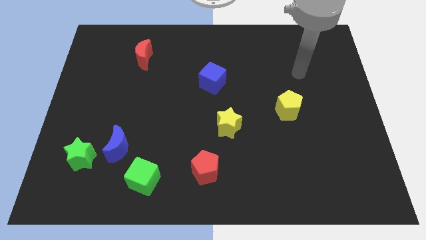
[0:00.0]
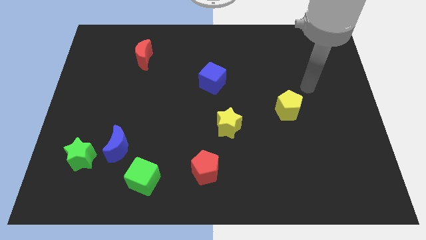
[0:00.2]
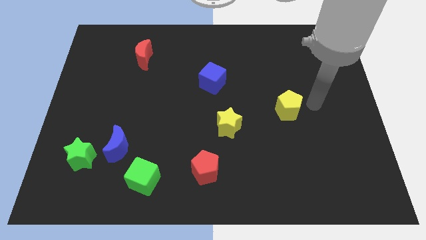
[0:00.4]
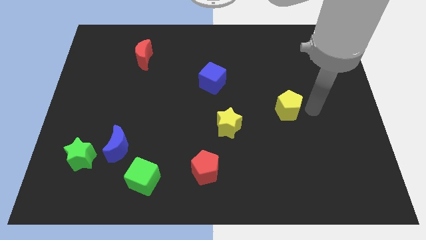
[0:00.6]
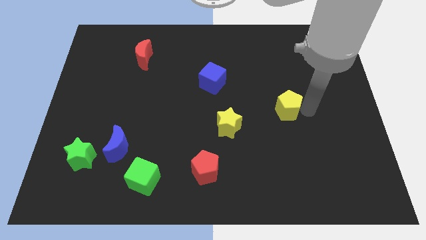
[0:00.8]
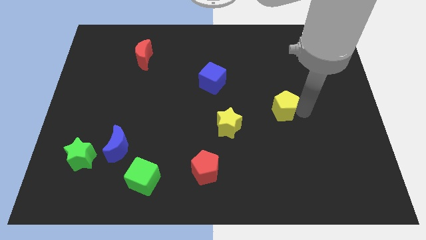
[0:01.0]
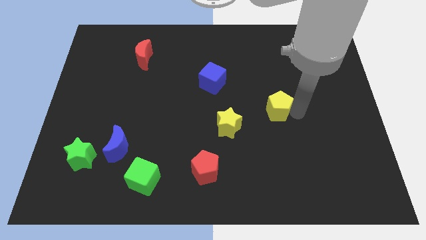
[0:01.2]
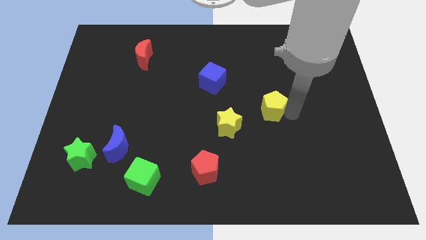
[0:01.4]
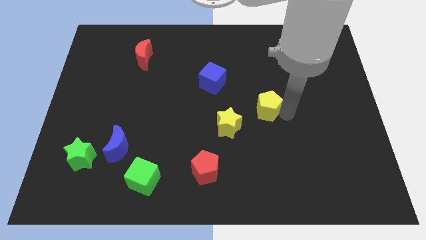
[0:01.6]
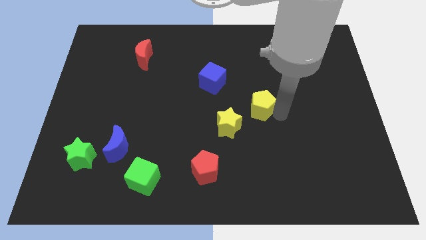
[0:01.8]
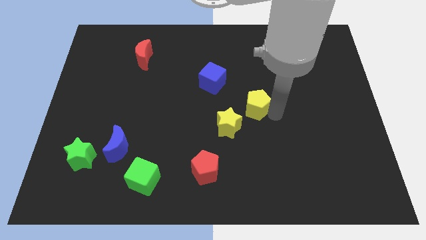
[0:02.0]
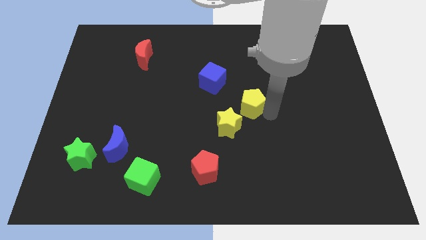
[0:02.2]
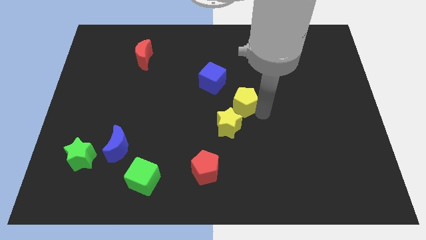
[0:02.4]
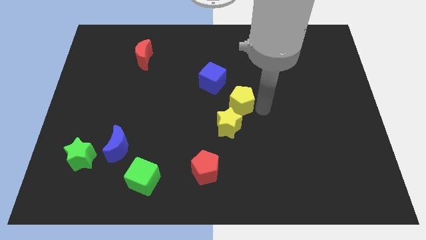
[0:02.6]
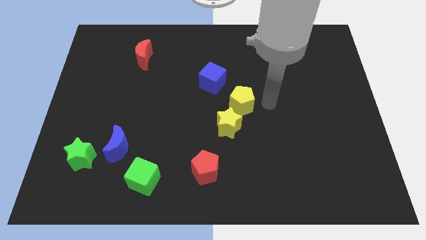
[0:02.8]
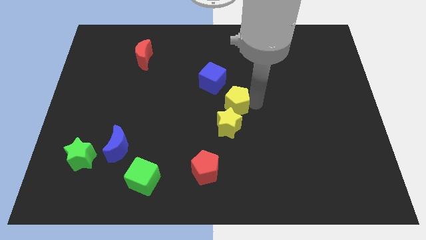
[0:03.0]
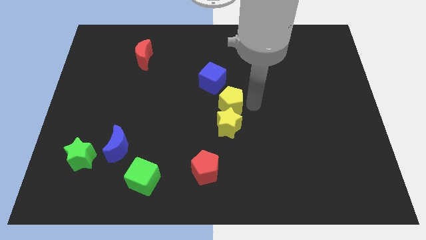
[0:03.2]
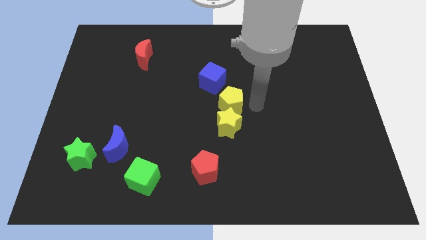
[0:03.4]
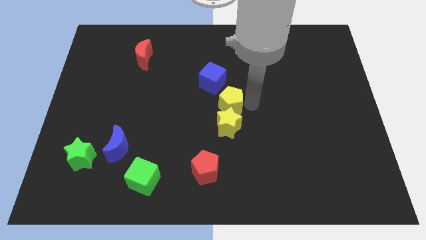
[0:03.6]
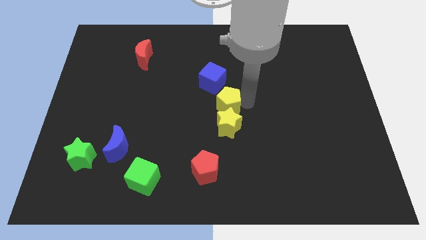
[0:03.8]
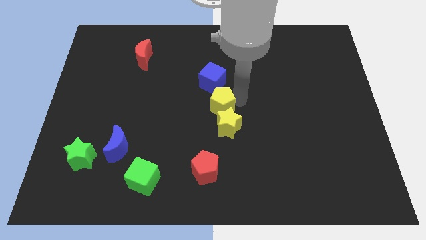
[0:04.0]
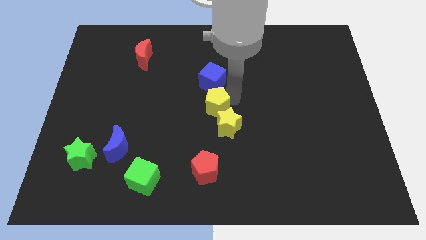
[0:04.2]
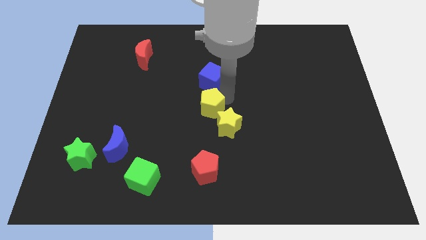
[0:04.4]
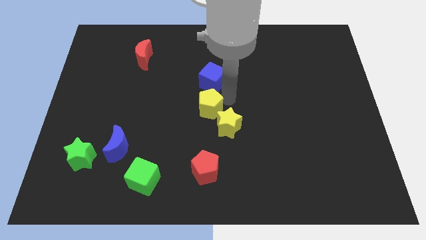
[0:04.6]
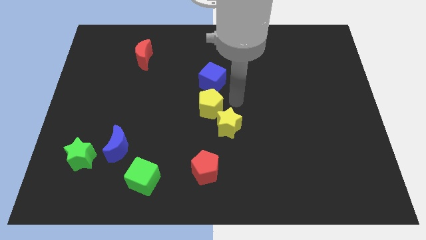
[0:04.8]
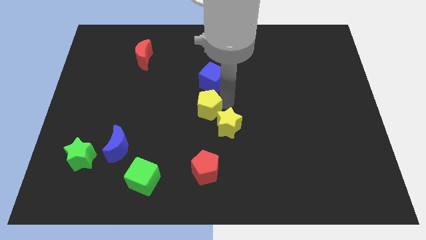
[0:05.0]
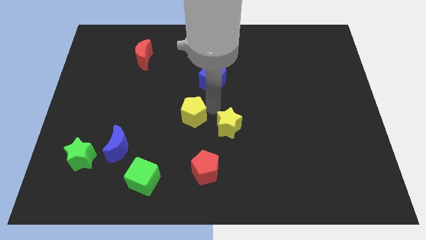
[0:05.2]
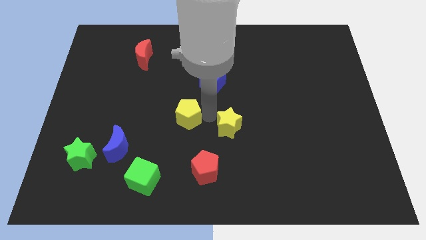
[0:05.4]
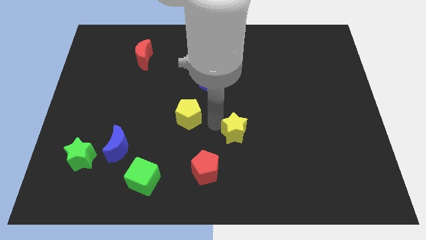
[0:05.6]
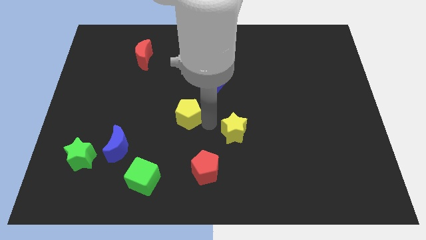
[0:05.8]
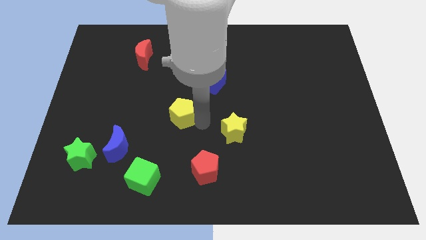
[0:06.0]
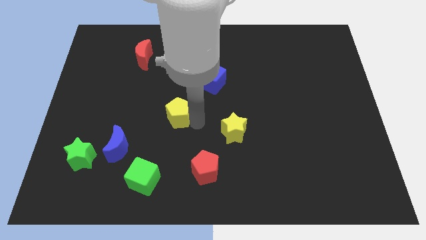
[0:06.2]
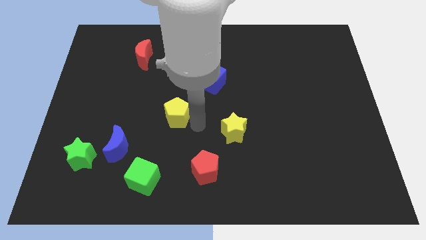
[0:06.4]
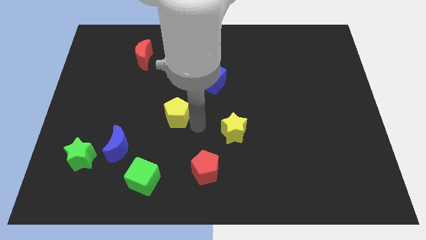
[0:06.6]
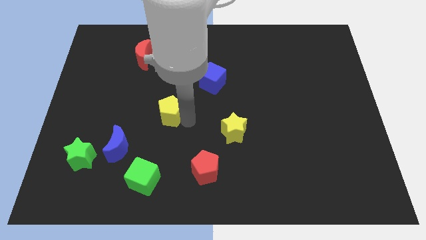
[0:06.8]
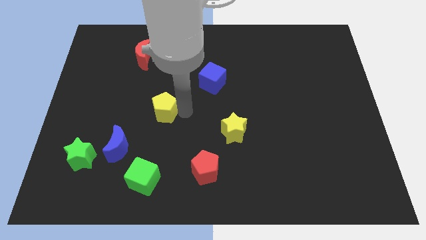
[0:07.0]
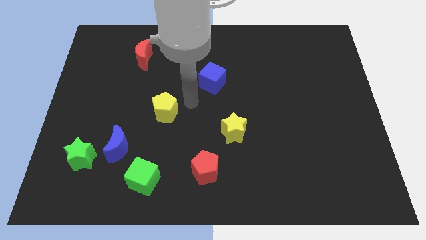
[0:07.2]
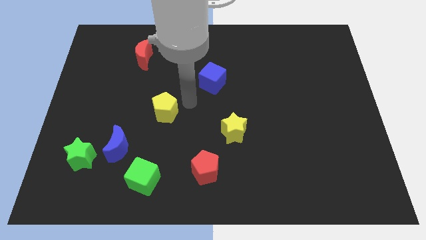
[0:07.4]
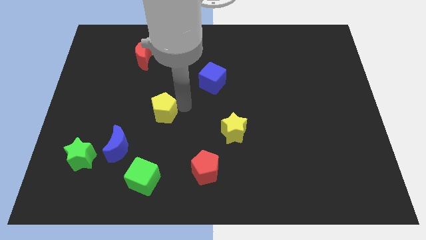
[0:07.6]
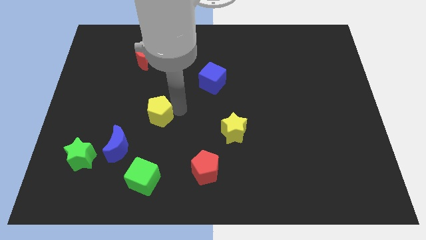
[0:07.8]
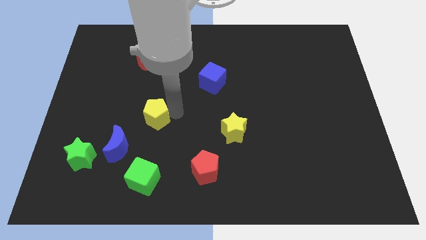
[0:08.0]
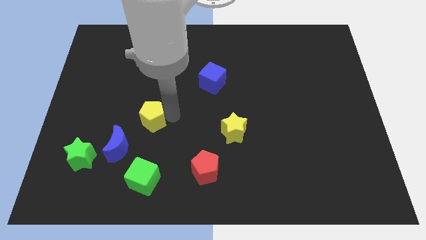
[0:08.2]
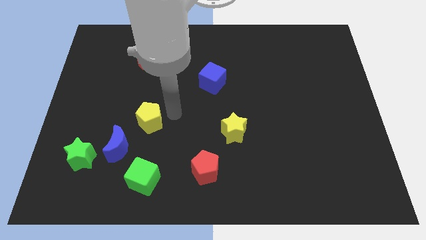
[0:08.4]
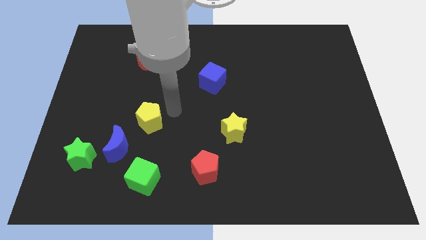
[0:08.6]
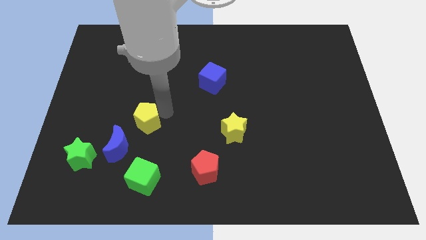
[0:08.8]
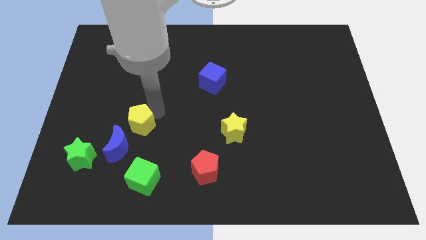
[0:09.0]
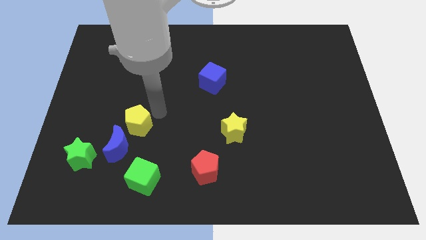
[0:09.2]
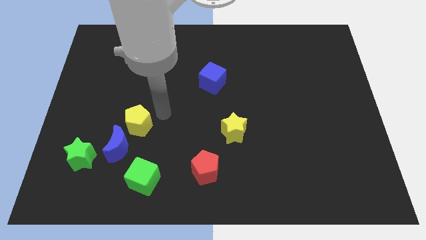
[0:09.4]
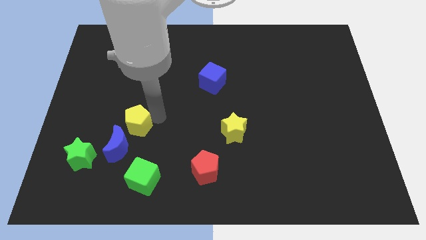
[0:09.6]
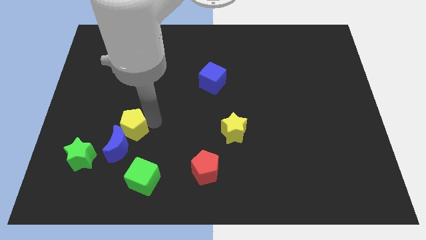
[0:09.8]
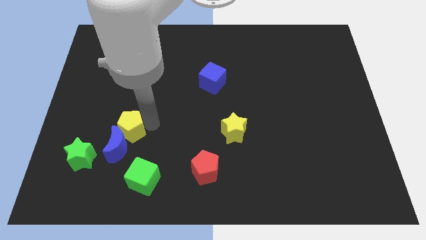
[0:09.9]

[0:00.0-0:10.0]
put the yellow pentagon to the top right side of the green star

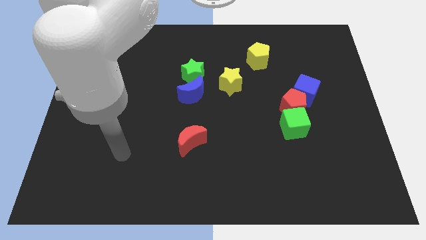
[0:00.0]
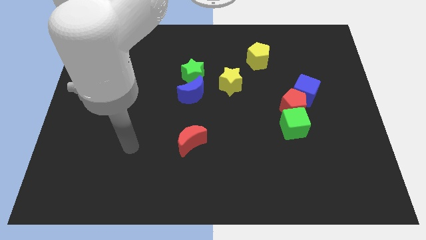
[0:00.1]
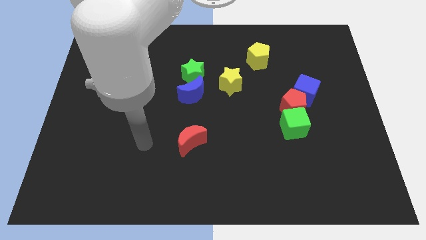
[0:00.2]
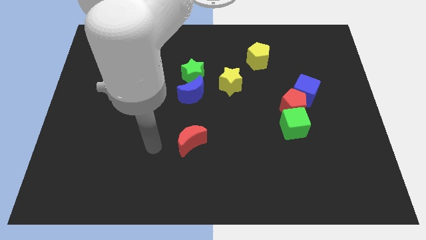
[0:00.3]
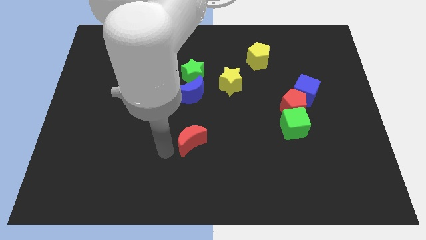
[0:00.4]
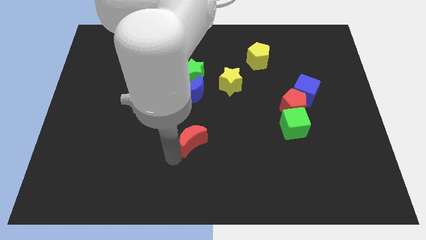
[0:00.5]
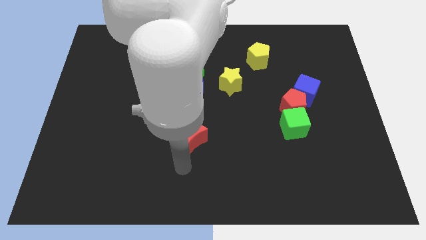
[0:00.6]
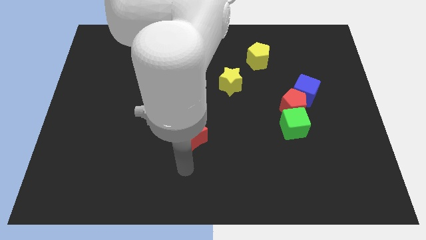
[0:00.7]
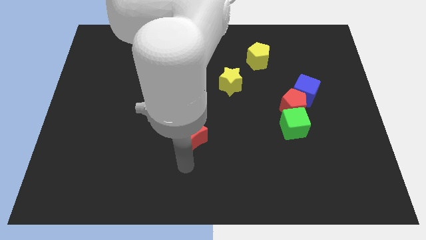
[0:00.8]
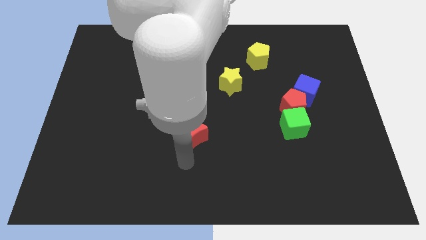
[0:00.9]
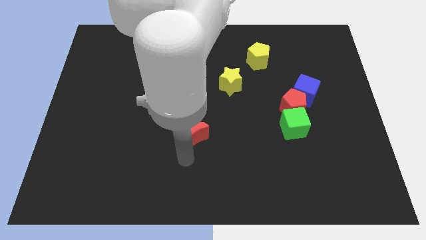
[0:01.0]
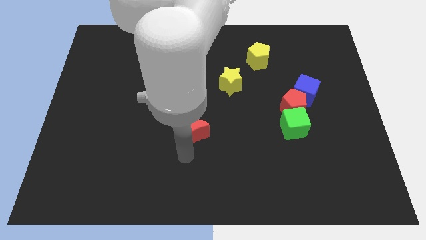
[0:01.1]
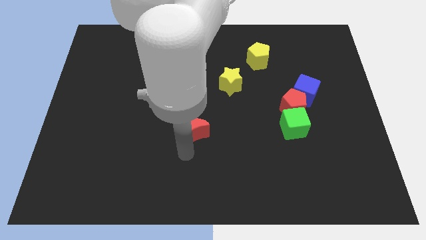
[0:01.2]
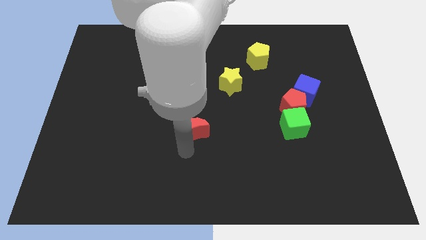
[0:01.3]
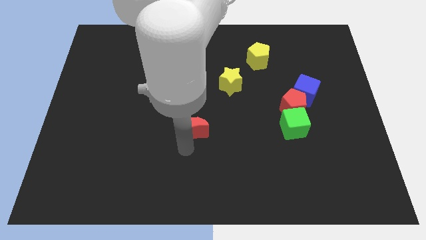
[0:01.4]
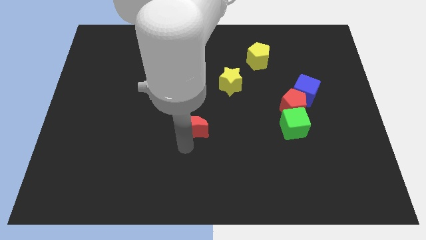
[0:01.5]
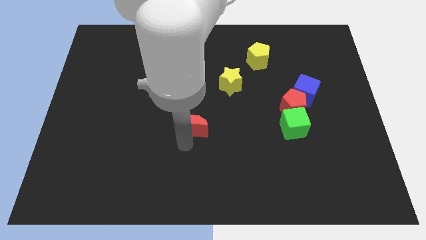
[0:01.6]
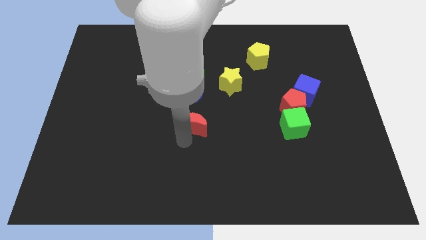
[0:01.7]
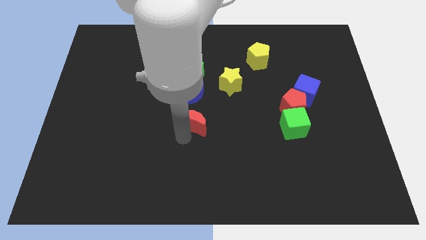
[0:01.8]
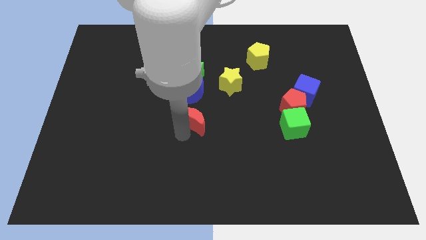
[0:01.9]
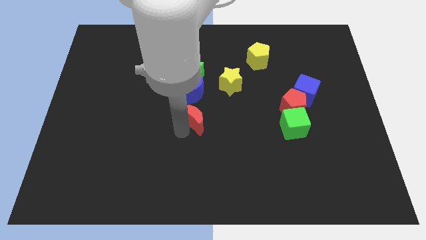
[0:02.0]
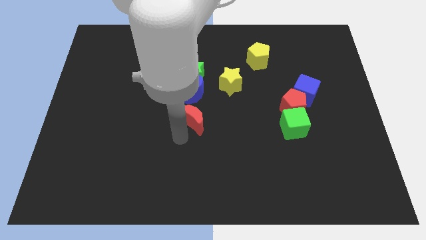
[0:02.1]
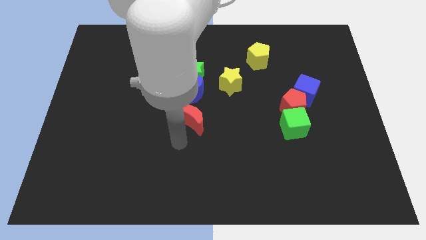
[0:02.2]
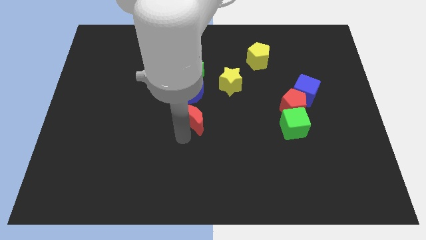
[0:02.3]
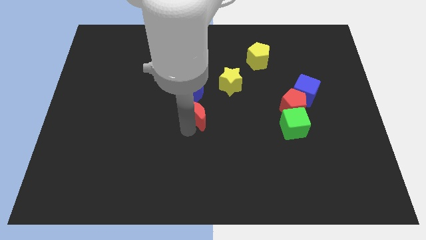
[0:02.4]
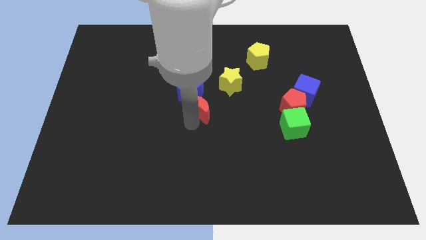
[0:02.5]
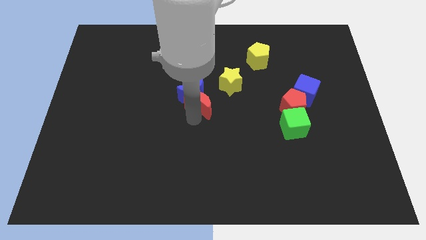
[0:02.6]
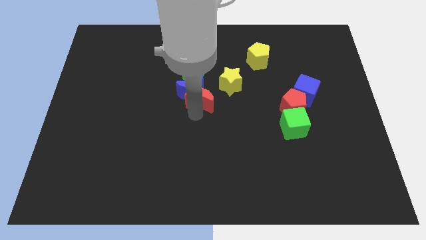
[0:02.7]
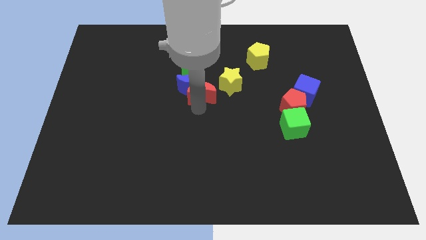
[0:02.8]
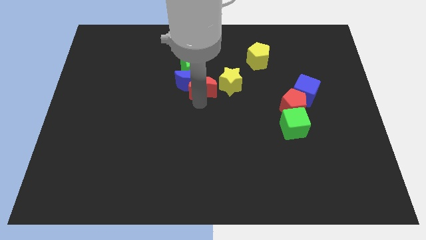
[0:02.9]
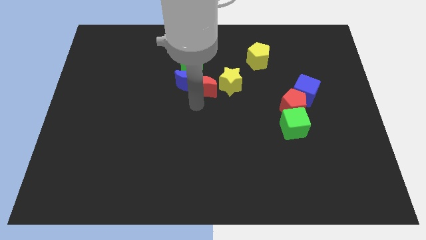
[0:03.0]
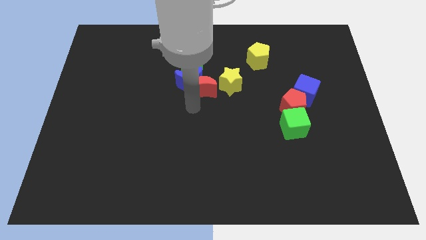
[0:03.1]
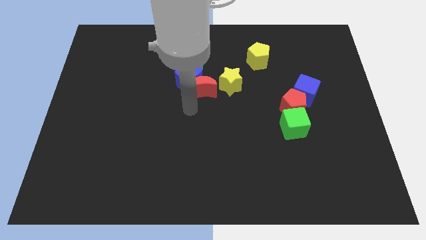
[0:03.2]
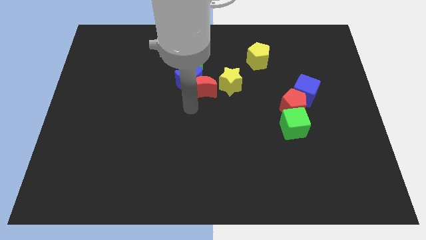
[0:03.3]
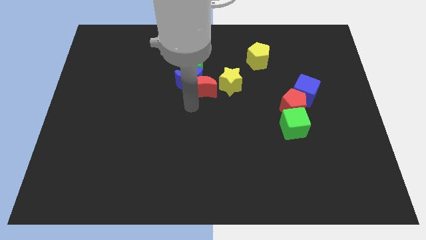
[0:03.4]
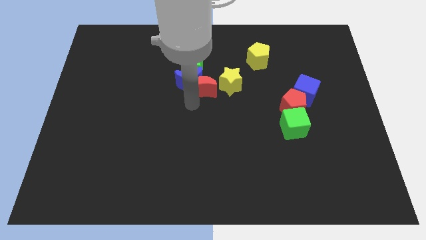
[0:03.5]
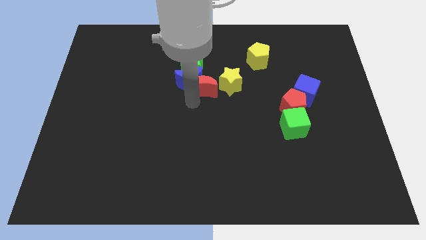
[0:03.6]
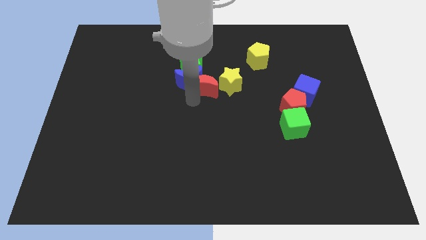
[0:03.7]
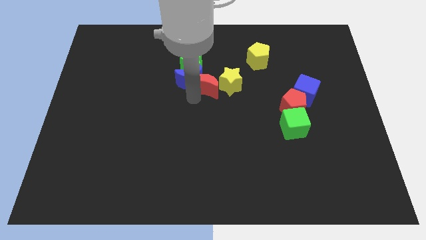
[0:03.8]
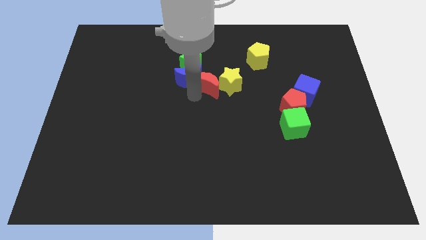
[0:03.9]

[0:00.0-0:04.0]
push the red moon to the top left side of the yellow star
